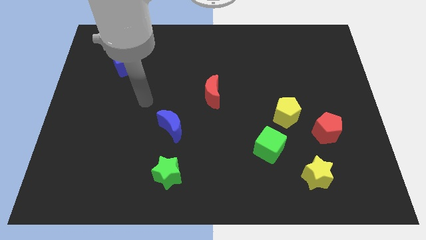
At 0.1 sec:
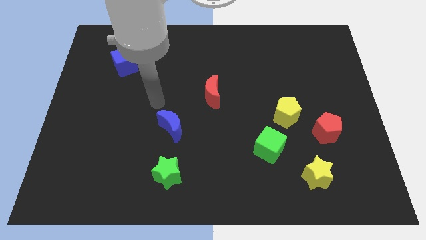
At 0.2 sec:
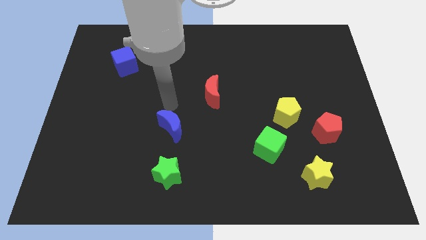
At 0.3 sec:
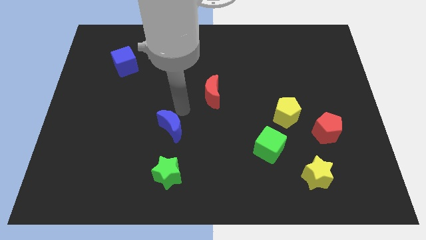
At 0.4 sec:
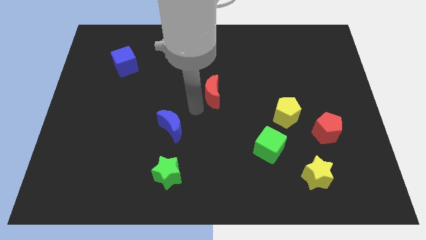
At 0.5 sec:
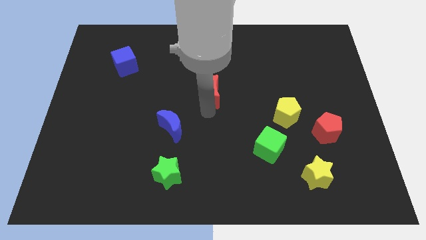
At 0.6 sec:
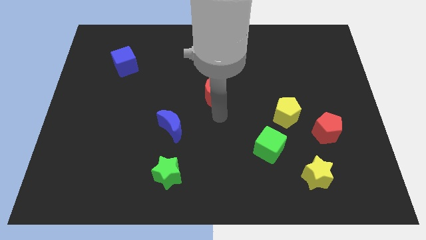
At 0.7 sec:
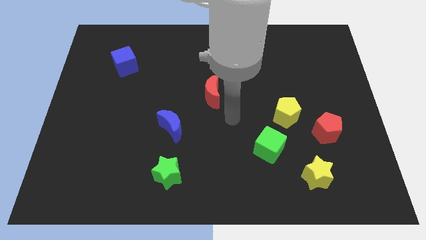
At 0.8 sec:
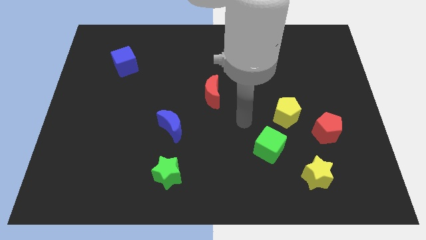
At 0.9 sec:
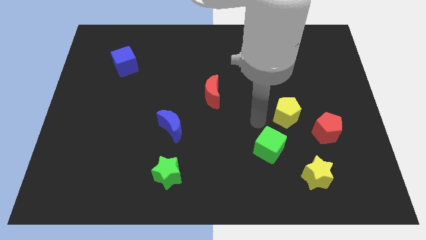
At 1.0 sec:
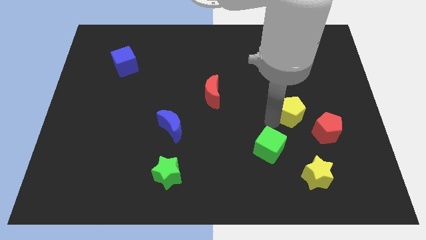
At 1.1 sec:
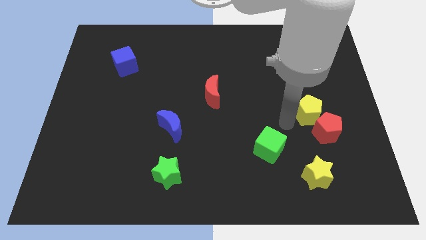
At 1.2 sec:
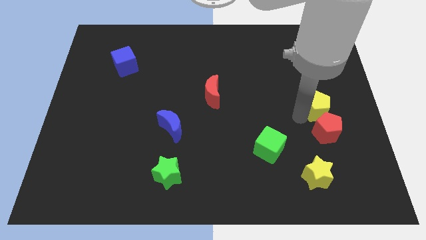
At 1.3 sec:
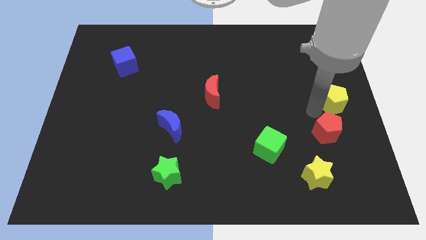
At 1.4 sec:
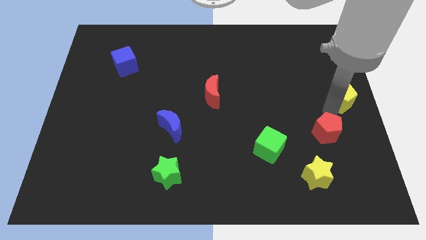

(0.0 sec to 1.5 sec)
pull the red pentagon apart from the yellow pentagon

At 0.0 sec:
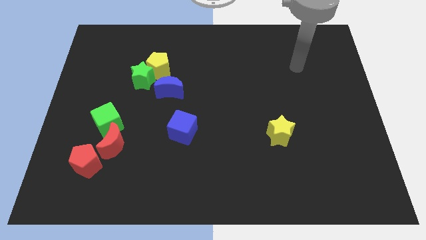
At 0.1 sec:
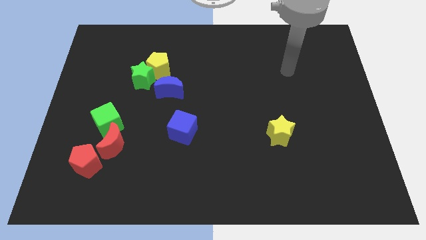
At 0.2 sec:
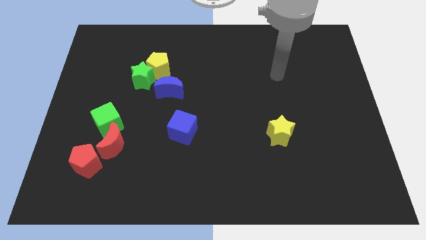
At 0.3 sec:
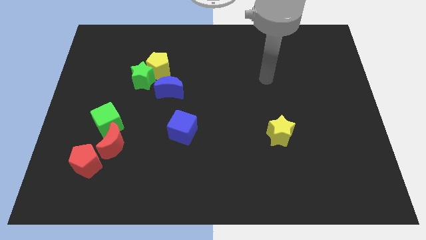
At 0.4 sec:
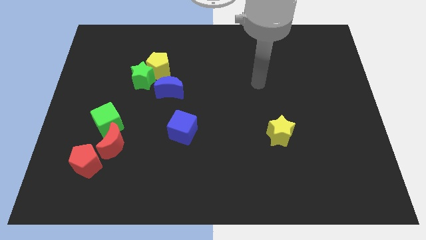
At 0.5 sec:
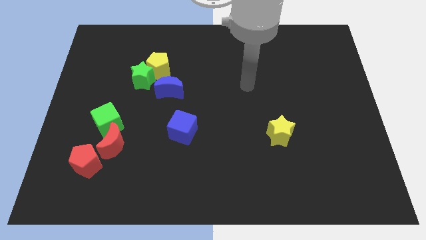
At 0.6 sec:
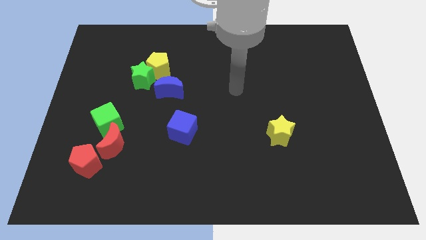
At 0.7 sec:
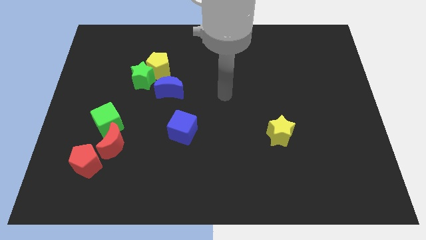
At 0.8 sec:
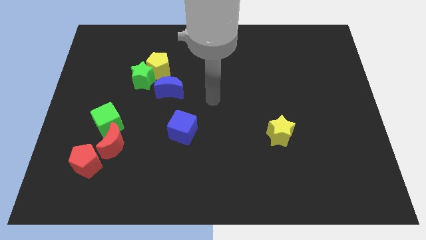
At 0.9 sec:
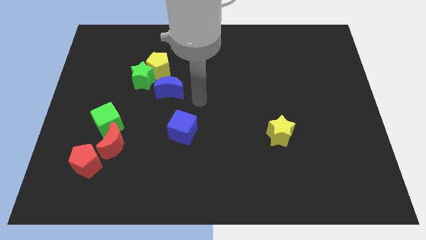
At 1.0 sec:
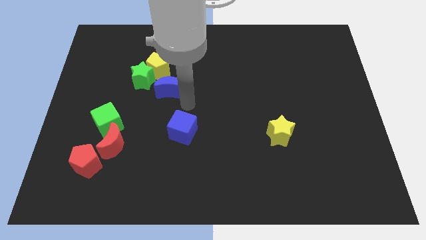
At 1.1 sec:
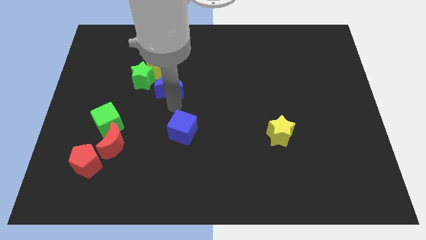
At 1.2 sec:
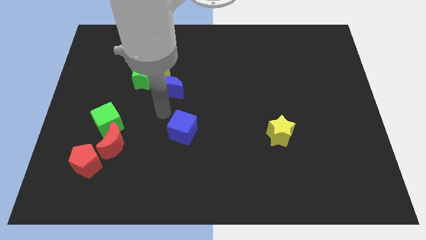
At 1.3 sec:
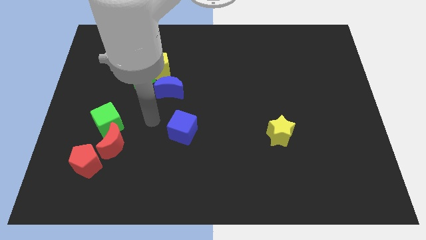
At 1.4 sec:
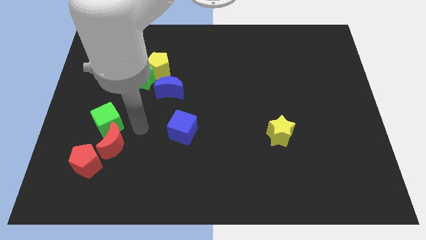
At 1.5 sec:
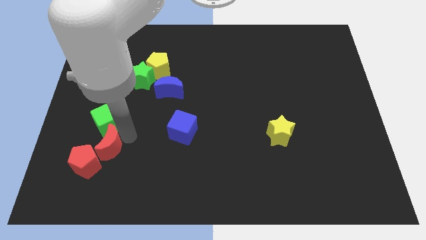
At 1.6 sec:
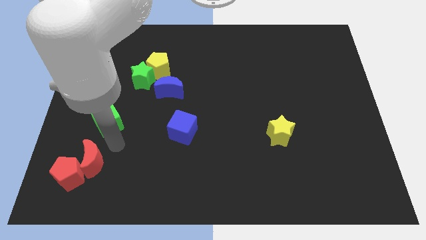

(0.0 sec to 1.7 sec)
separate the green cube from the red moon

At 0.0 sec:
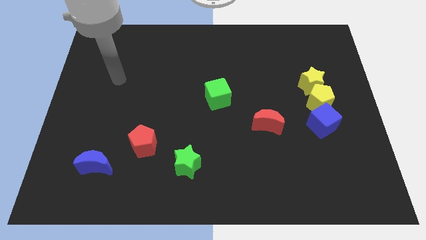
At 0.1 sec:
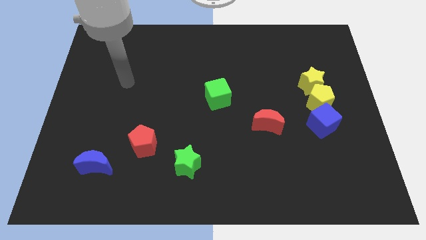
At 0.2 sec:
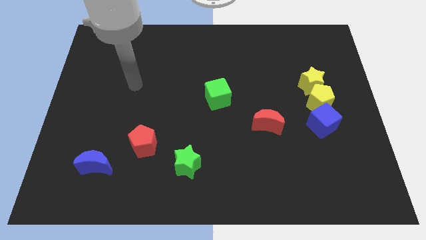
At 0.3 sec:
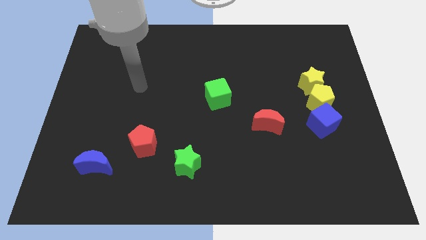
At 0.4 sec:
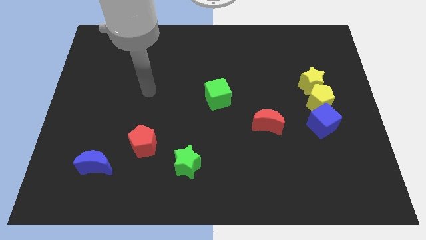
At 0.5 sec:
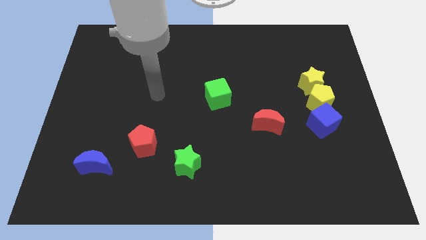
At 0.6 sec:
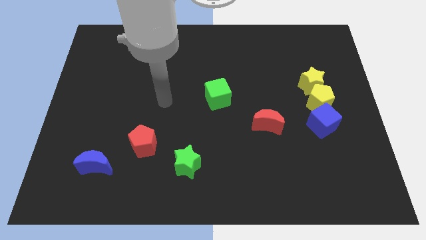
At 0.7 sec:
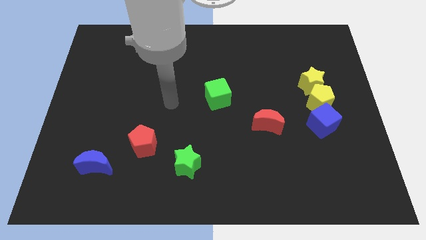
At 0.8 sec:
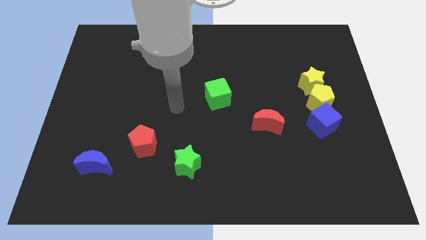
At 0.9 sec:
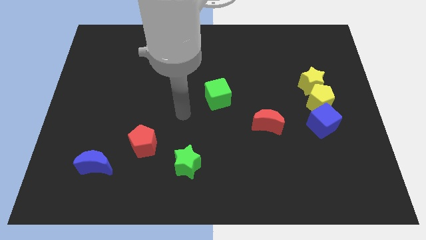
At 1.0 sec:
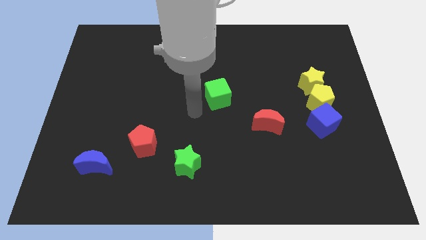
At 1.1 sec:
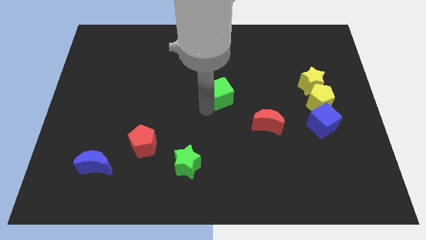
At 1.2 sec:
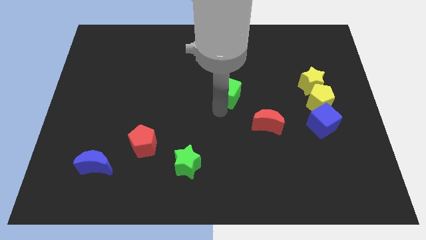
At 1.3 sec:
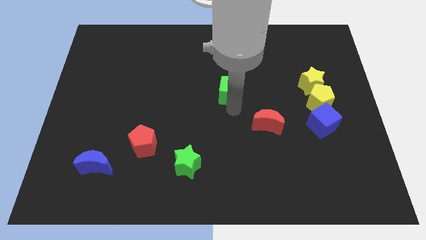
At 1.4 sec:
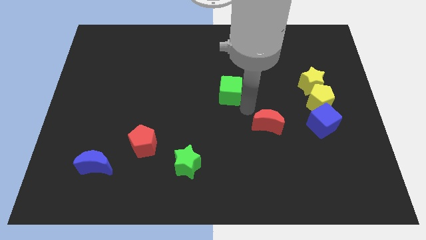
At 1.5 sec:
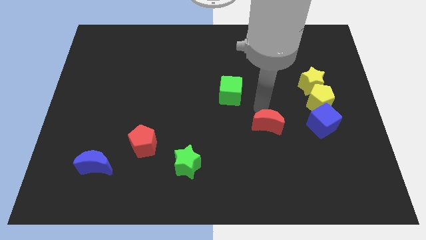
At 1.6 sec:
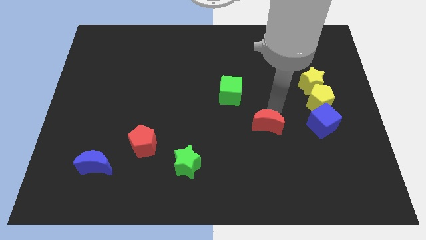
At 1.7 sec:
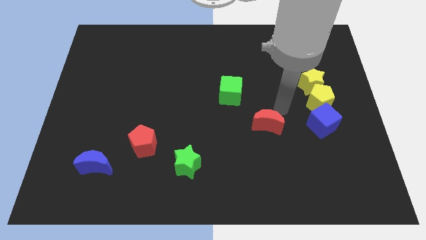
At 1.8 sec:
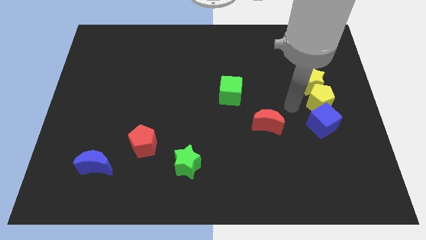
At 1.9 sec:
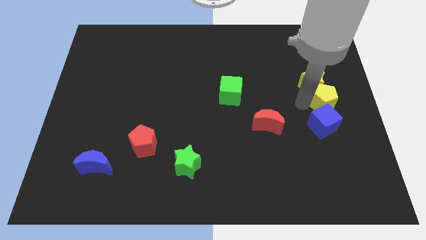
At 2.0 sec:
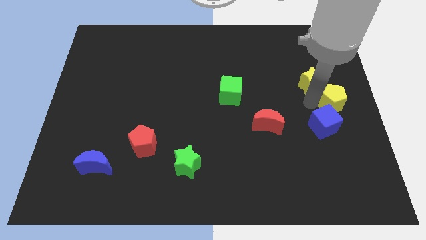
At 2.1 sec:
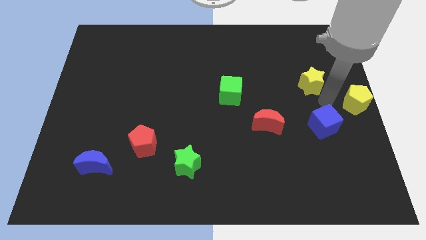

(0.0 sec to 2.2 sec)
move the yellow star away from the yellow pentagon

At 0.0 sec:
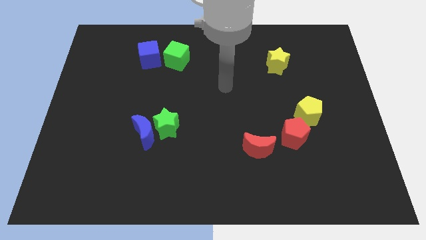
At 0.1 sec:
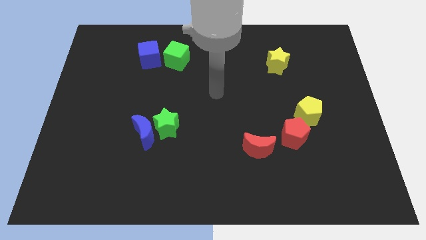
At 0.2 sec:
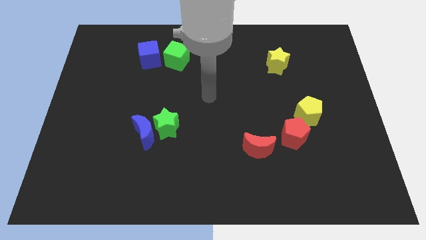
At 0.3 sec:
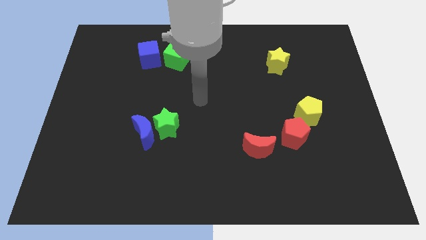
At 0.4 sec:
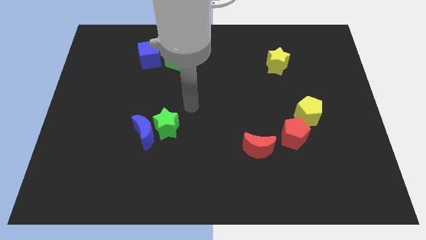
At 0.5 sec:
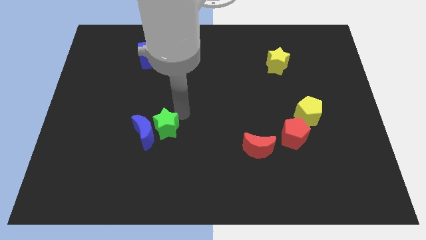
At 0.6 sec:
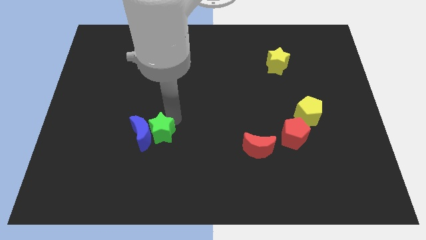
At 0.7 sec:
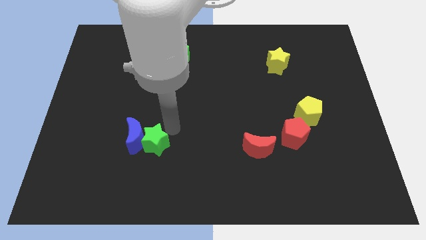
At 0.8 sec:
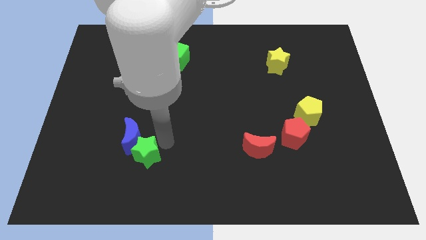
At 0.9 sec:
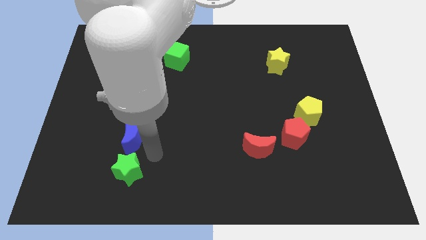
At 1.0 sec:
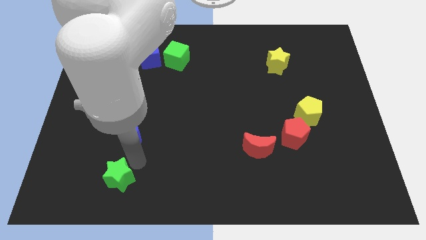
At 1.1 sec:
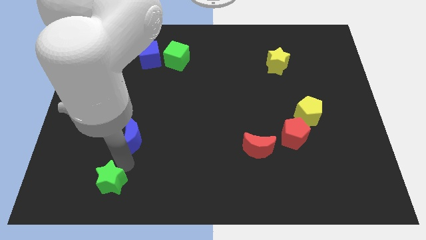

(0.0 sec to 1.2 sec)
move the blue moon away from the green star

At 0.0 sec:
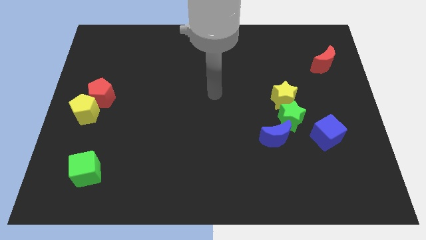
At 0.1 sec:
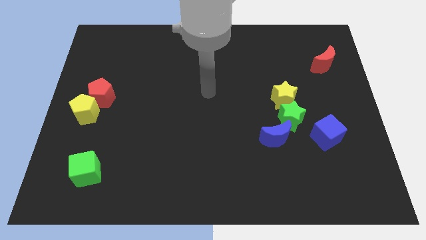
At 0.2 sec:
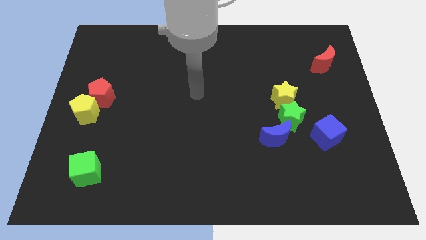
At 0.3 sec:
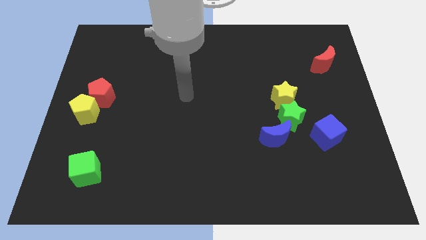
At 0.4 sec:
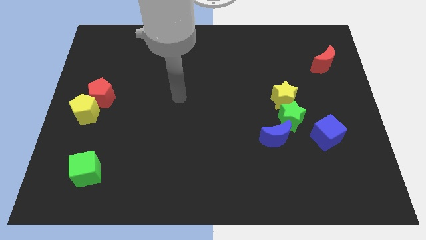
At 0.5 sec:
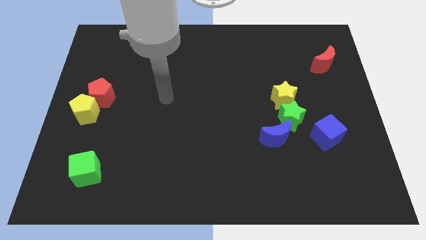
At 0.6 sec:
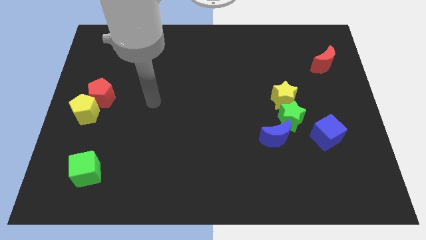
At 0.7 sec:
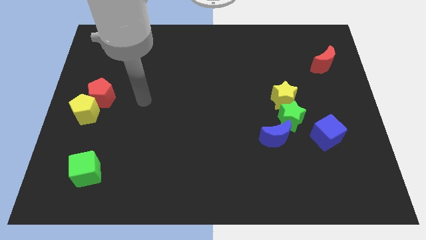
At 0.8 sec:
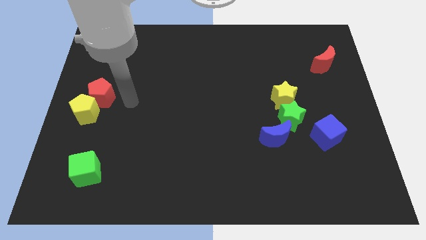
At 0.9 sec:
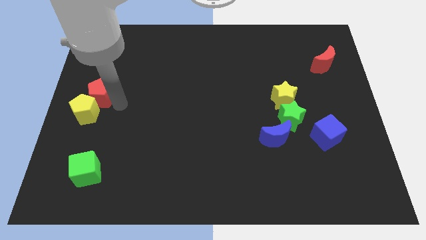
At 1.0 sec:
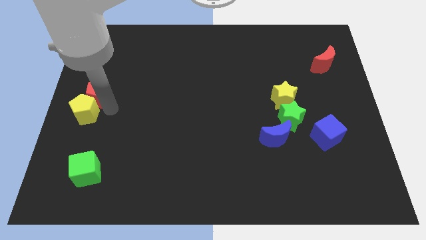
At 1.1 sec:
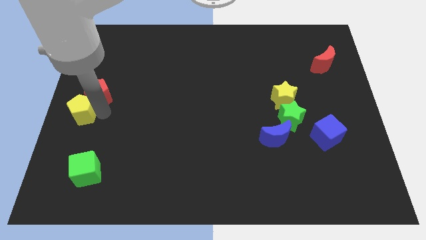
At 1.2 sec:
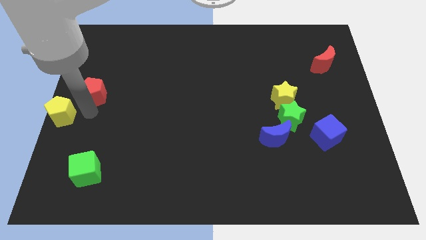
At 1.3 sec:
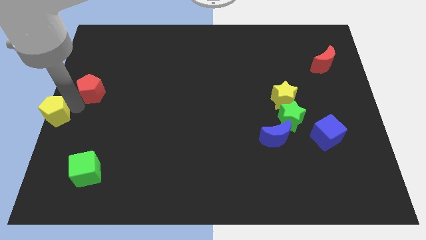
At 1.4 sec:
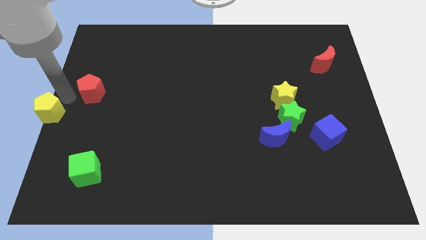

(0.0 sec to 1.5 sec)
move the red pentagon away from the yellow pentagon

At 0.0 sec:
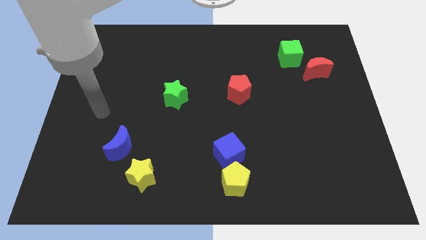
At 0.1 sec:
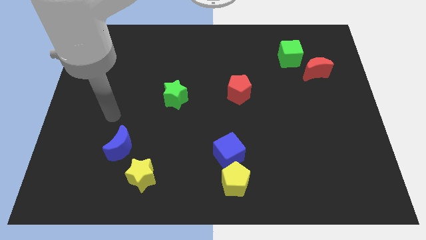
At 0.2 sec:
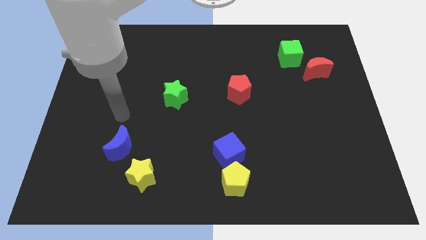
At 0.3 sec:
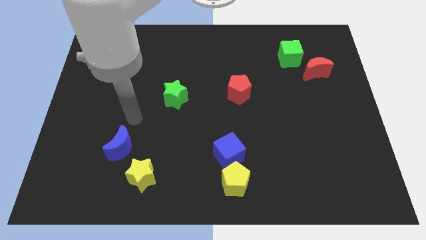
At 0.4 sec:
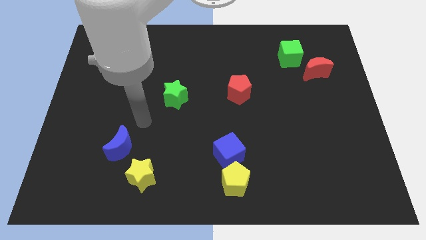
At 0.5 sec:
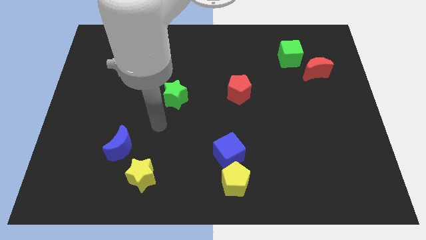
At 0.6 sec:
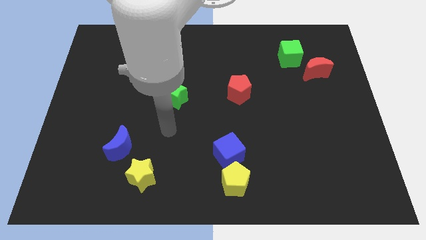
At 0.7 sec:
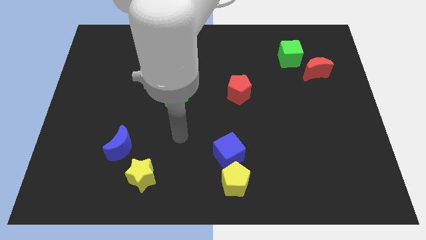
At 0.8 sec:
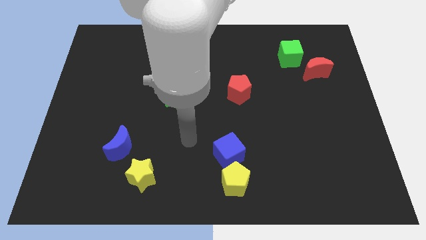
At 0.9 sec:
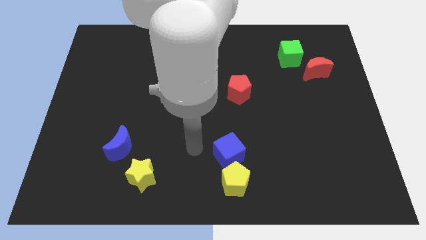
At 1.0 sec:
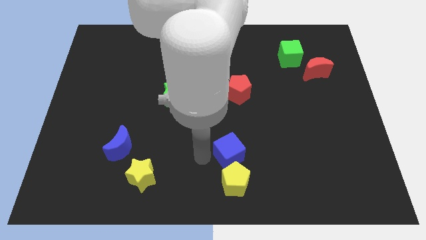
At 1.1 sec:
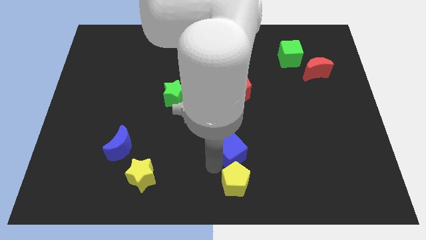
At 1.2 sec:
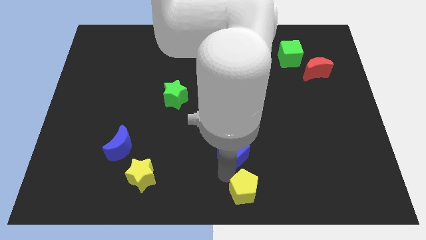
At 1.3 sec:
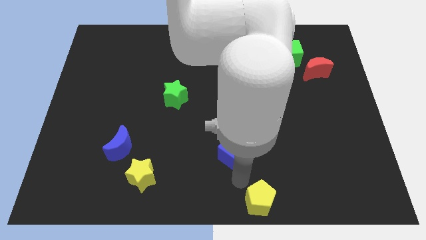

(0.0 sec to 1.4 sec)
move the blue cube away from the yellow pentagon
